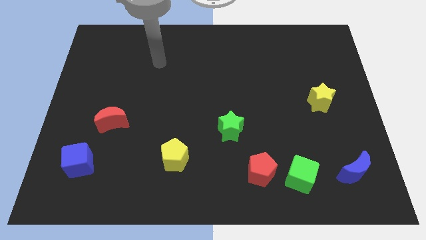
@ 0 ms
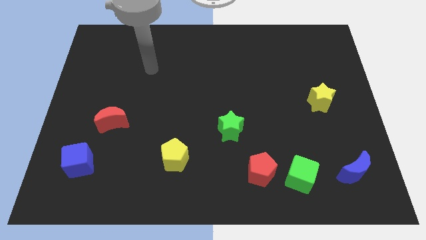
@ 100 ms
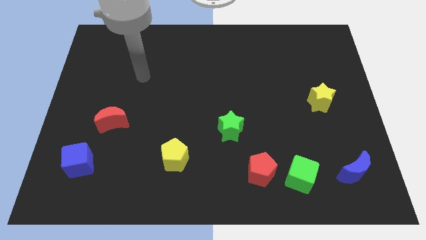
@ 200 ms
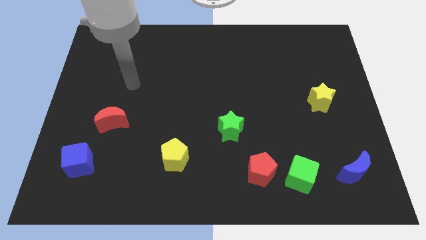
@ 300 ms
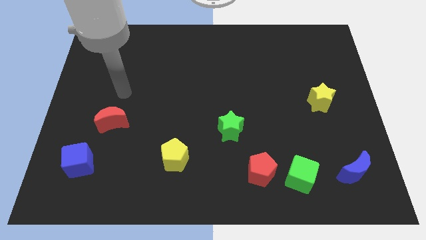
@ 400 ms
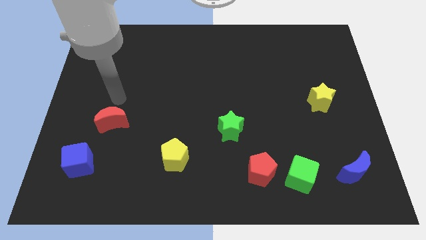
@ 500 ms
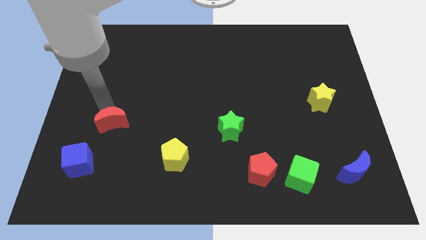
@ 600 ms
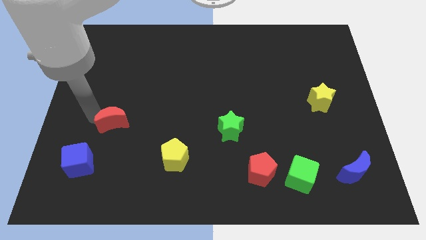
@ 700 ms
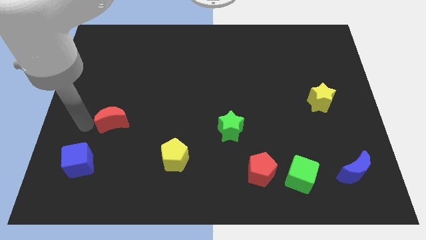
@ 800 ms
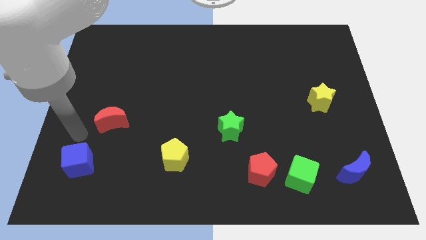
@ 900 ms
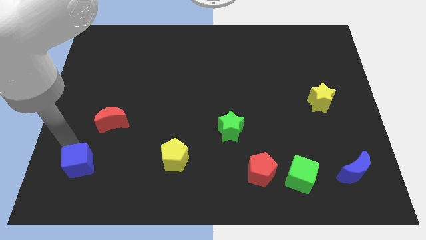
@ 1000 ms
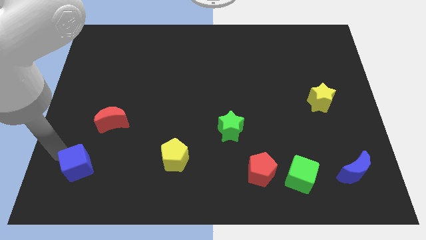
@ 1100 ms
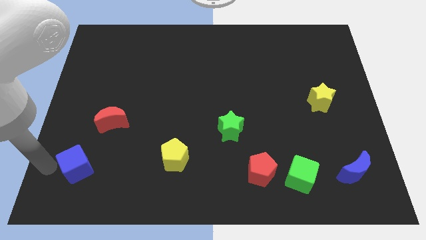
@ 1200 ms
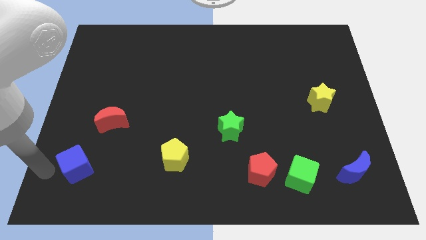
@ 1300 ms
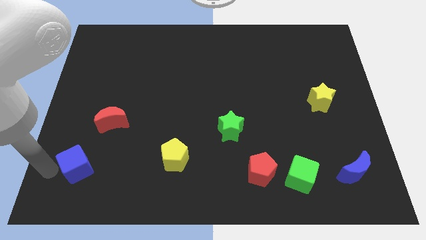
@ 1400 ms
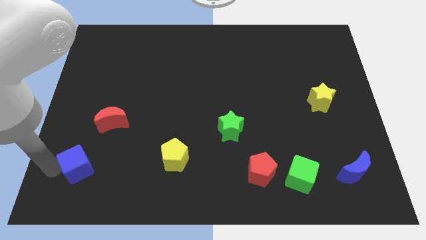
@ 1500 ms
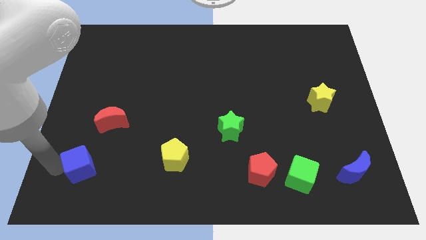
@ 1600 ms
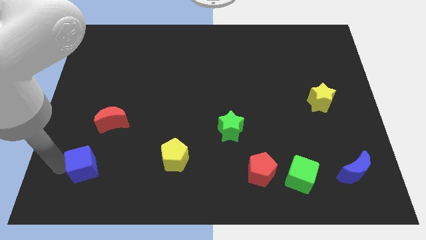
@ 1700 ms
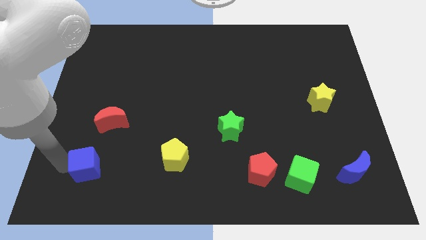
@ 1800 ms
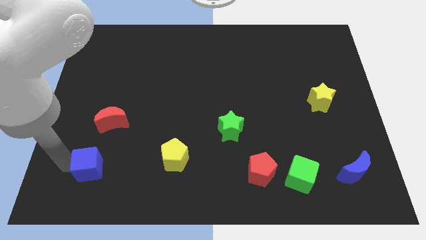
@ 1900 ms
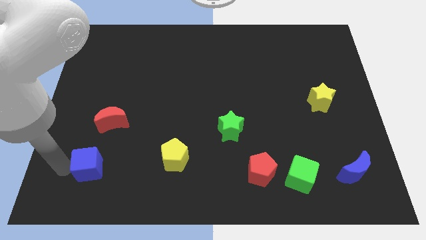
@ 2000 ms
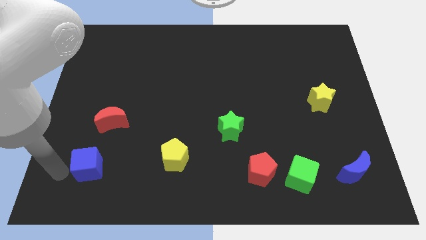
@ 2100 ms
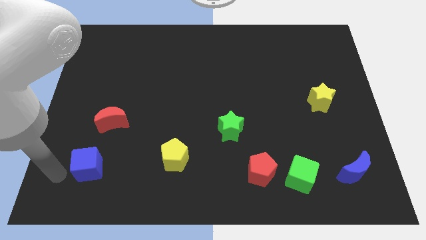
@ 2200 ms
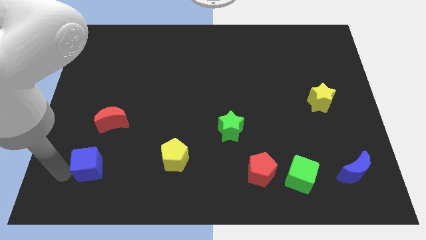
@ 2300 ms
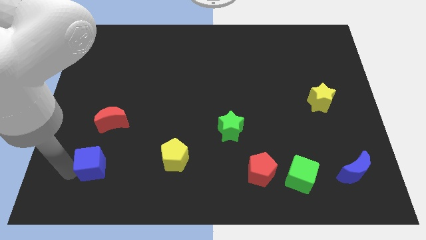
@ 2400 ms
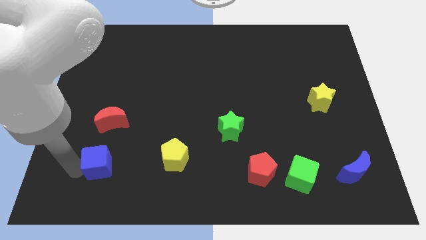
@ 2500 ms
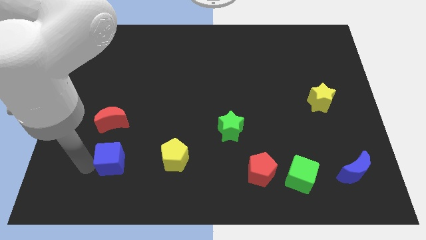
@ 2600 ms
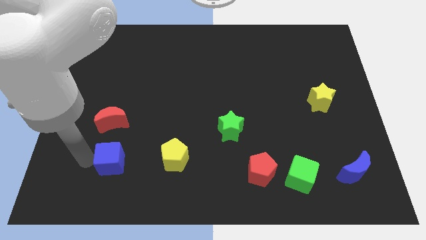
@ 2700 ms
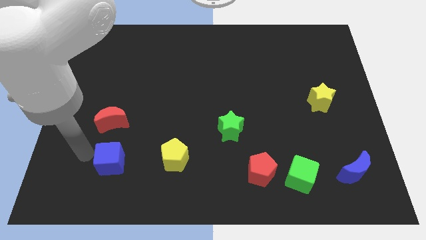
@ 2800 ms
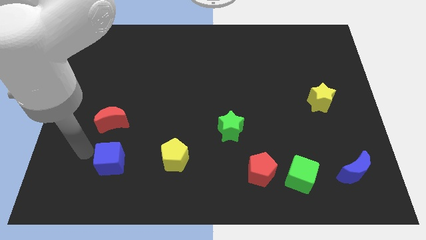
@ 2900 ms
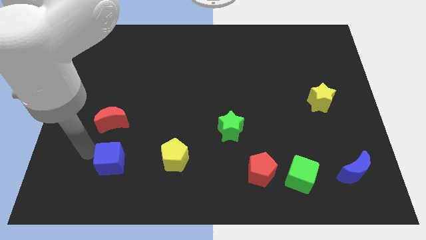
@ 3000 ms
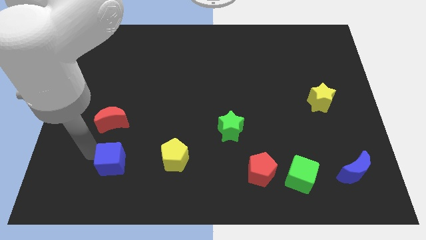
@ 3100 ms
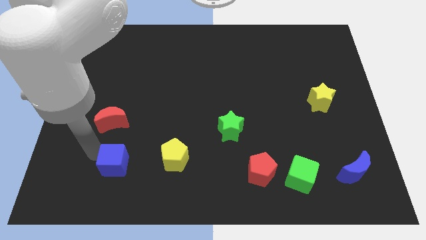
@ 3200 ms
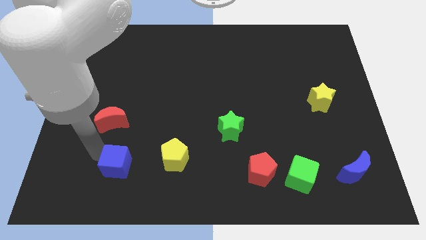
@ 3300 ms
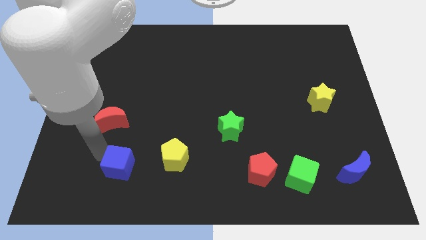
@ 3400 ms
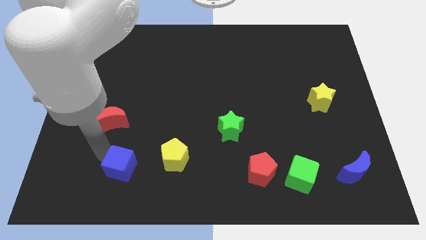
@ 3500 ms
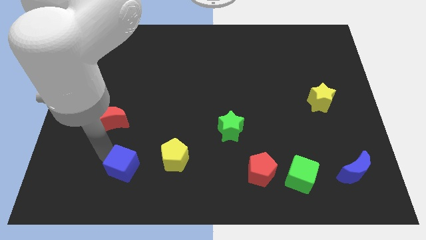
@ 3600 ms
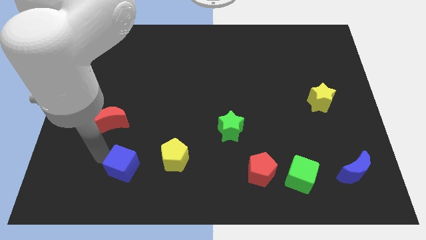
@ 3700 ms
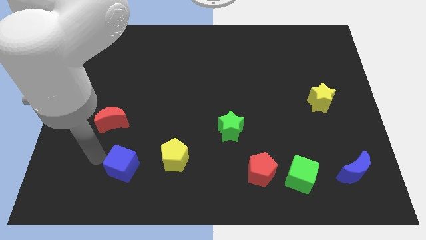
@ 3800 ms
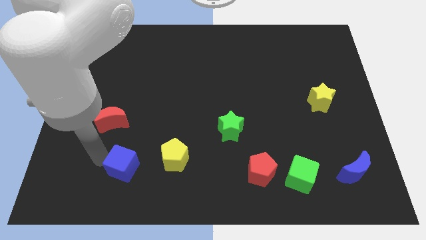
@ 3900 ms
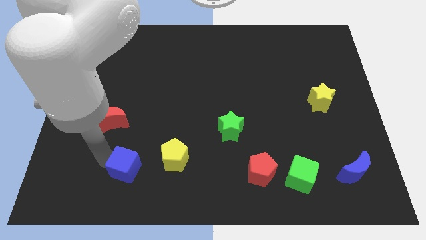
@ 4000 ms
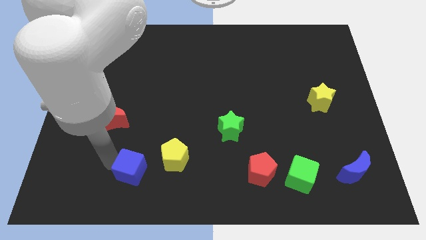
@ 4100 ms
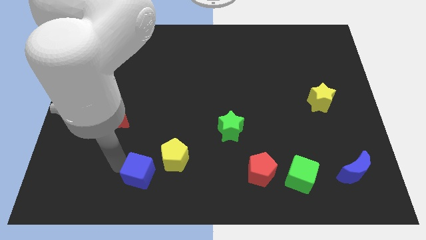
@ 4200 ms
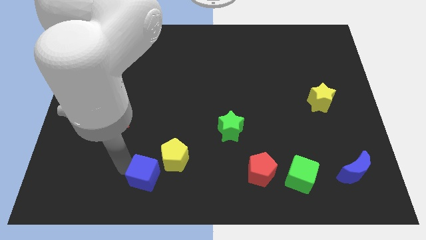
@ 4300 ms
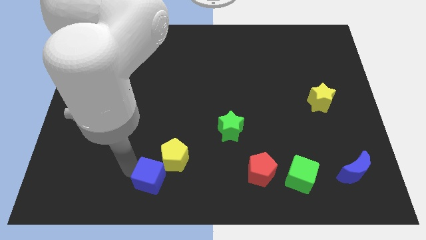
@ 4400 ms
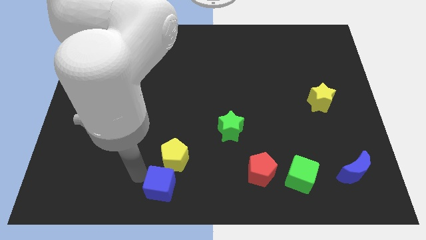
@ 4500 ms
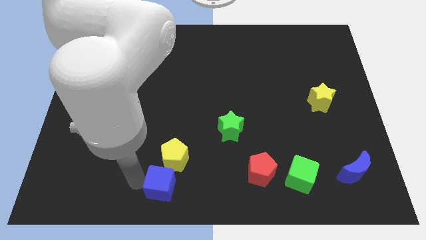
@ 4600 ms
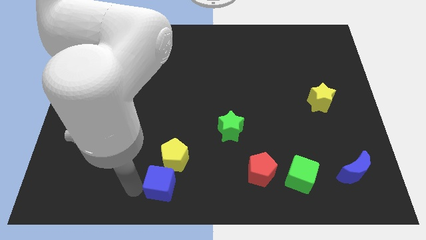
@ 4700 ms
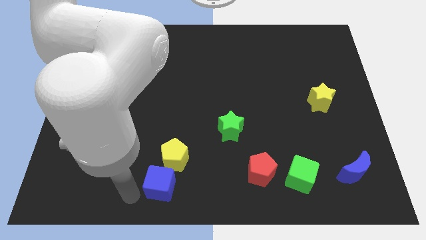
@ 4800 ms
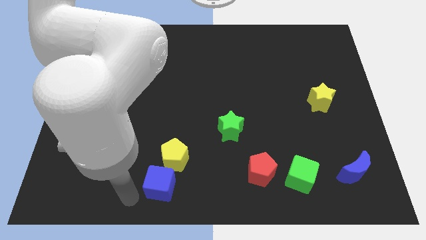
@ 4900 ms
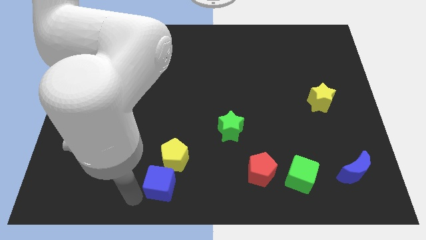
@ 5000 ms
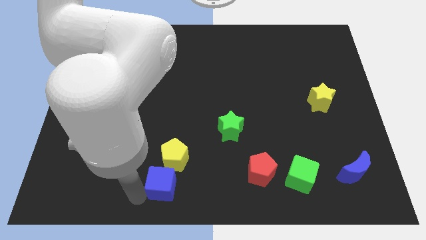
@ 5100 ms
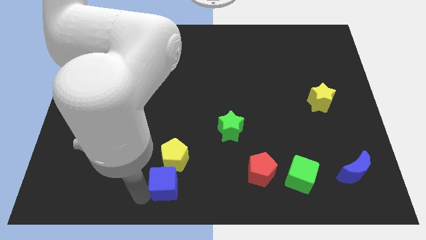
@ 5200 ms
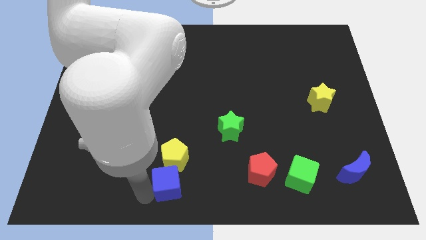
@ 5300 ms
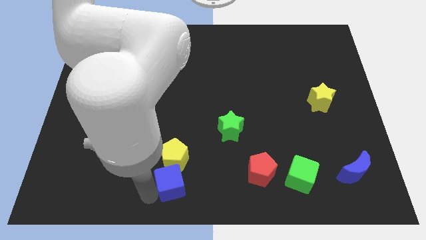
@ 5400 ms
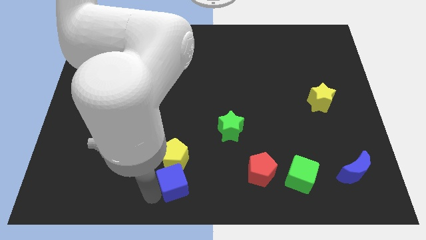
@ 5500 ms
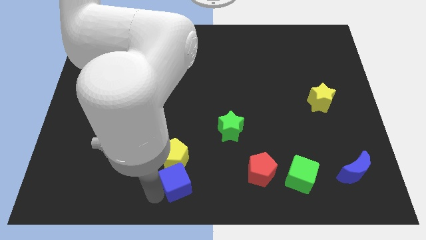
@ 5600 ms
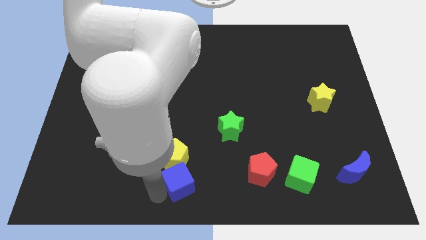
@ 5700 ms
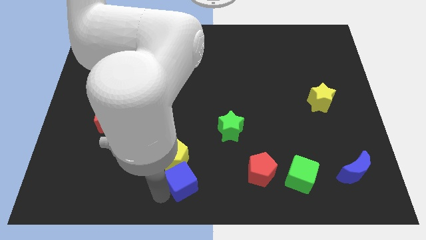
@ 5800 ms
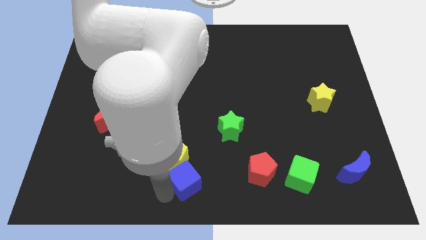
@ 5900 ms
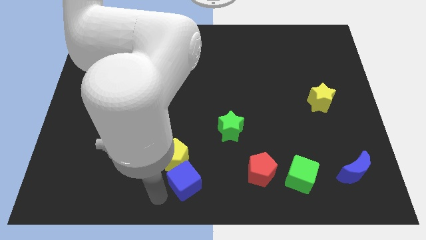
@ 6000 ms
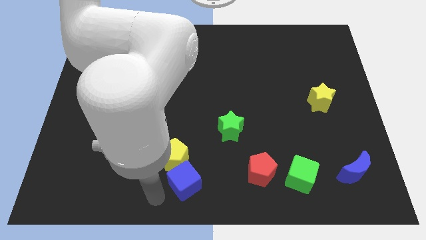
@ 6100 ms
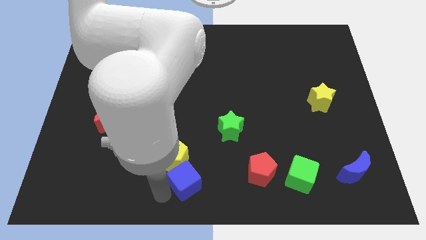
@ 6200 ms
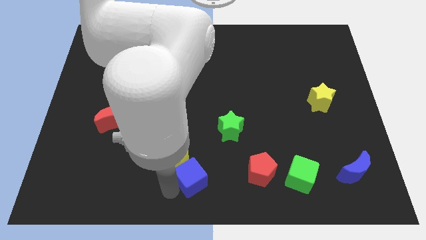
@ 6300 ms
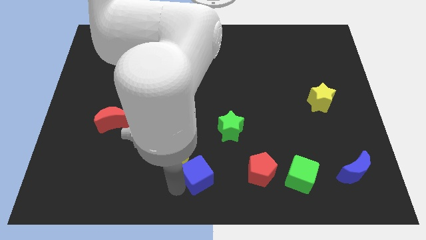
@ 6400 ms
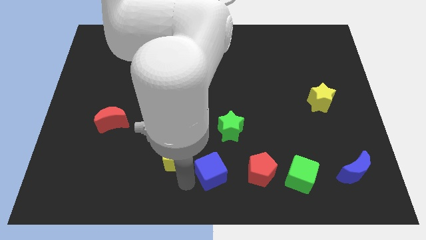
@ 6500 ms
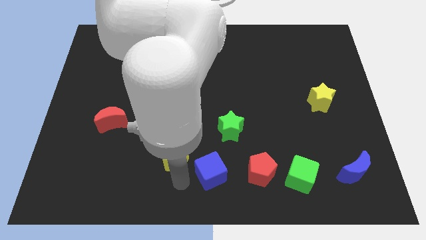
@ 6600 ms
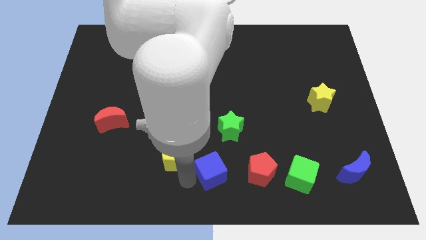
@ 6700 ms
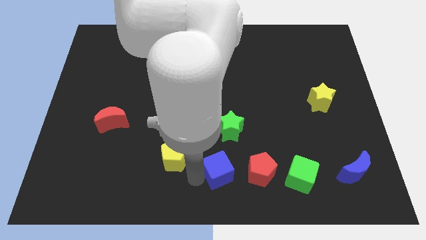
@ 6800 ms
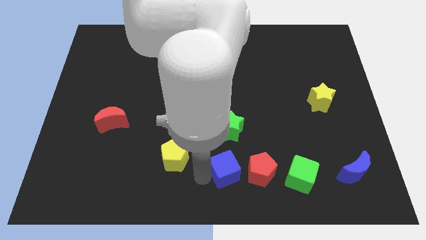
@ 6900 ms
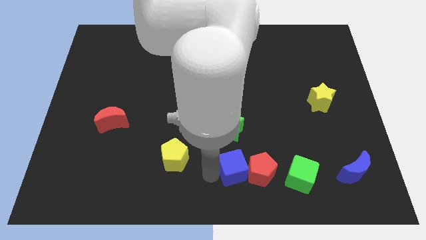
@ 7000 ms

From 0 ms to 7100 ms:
move the blue cube close to the red pentagon
